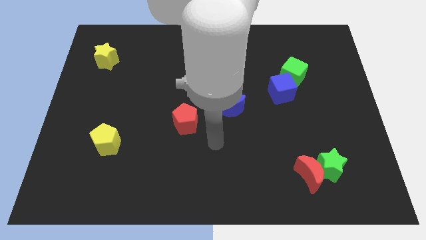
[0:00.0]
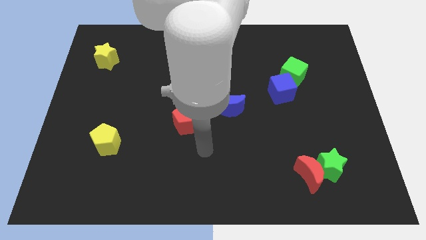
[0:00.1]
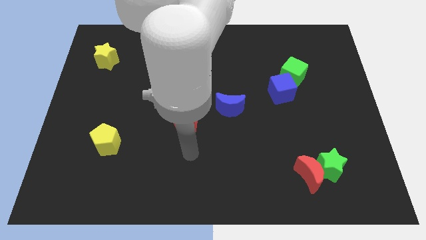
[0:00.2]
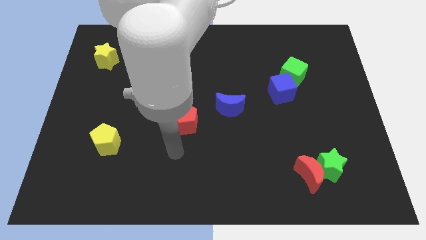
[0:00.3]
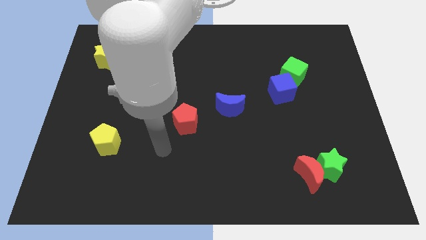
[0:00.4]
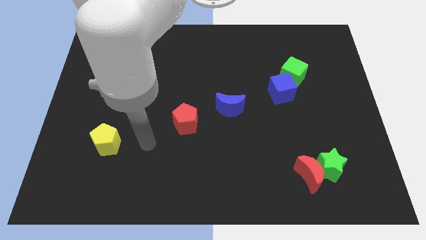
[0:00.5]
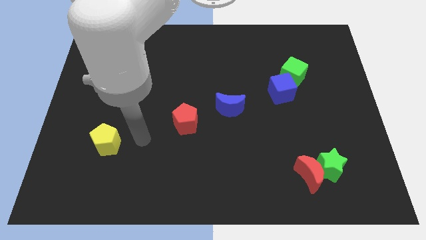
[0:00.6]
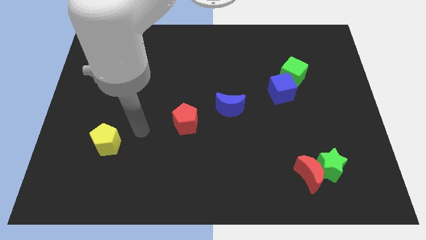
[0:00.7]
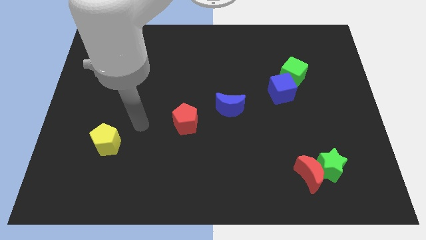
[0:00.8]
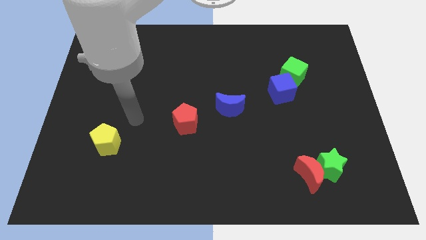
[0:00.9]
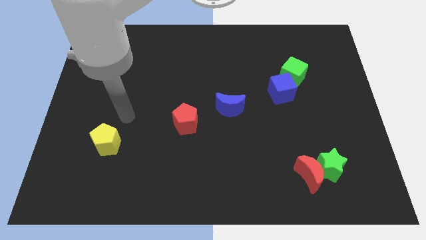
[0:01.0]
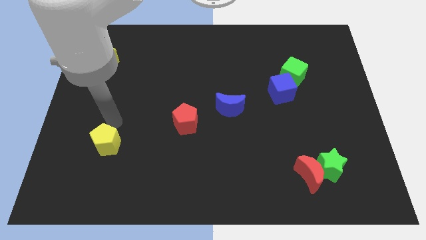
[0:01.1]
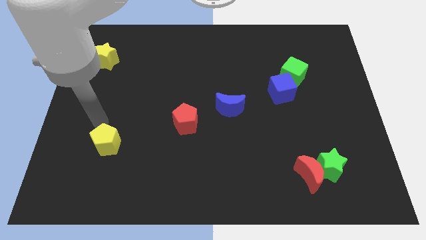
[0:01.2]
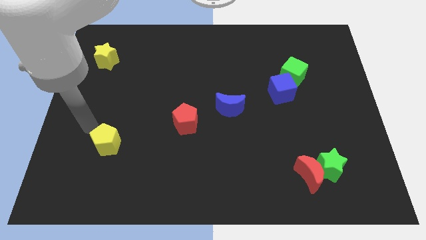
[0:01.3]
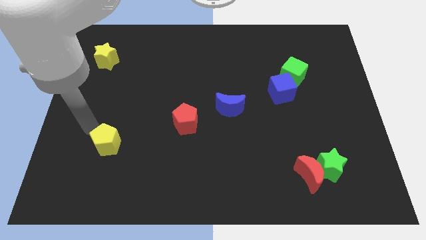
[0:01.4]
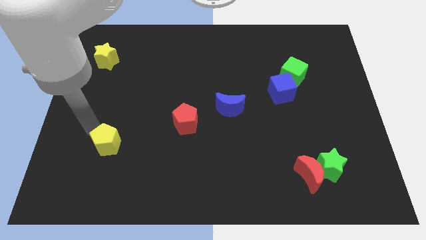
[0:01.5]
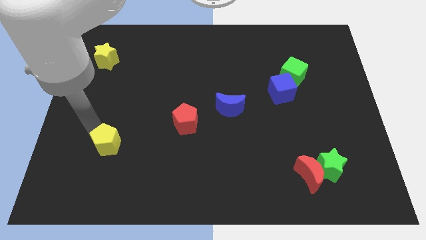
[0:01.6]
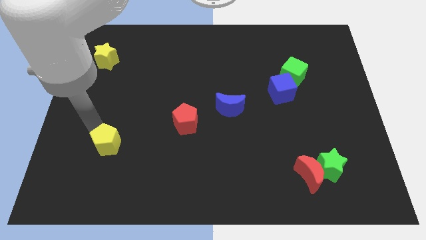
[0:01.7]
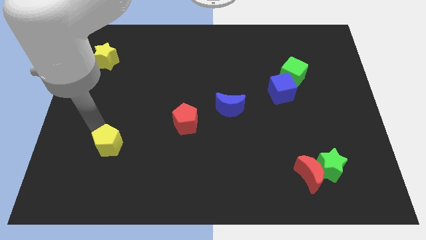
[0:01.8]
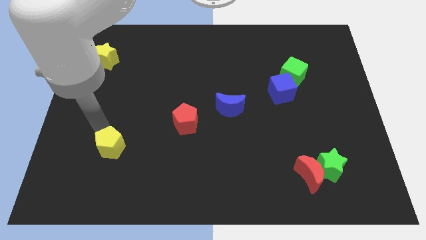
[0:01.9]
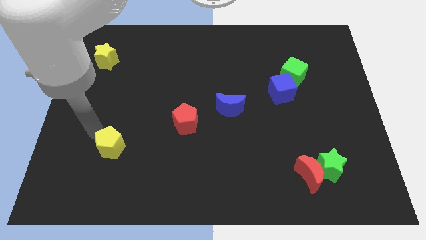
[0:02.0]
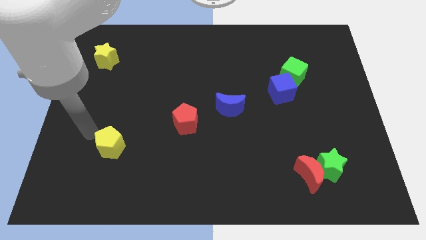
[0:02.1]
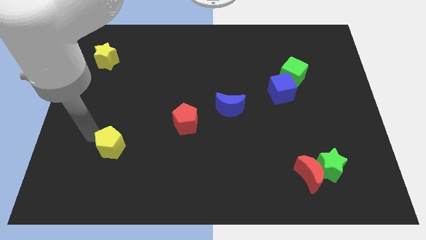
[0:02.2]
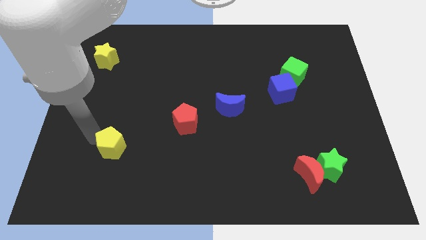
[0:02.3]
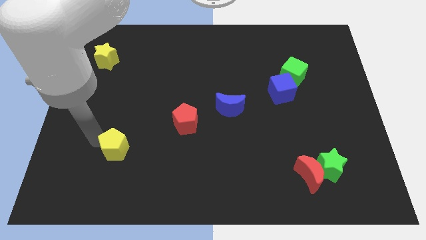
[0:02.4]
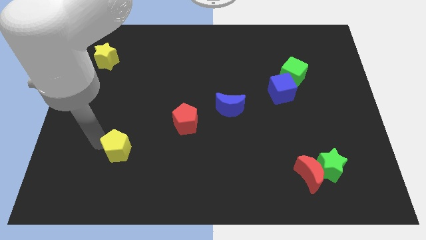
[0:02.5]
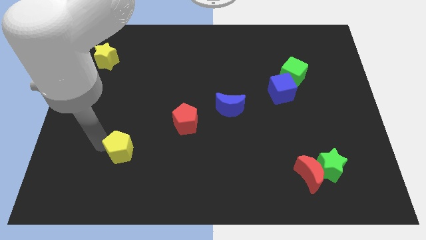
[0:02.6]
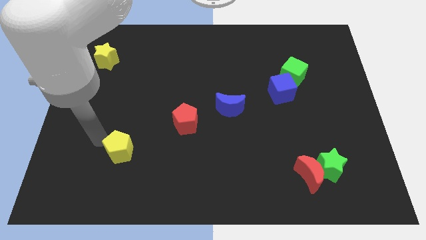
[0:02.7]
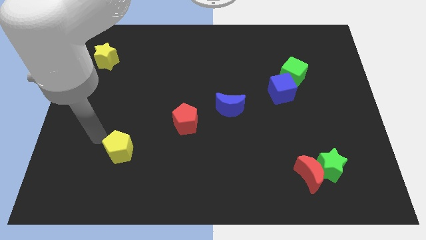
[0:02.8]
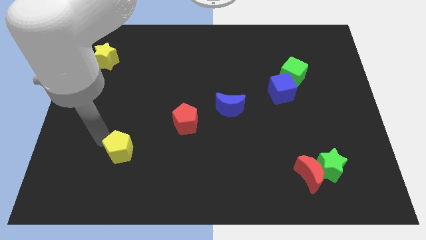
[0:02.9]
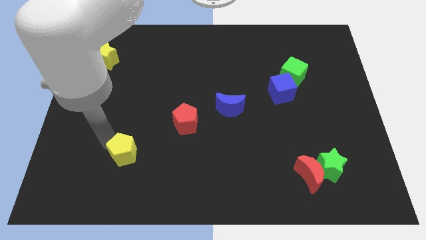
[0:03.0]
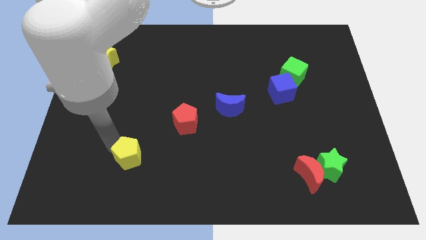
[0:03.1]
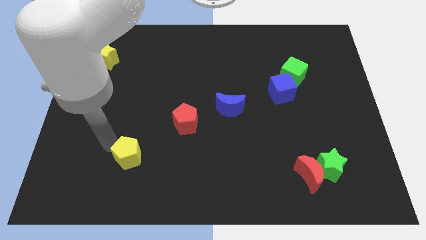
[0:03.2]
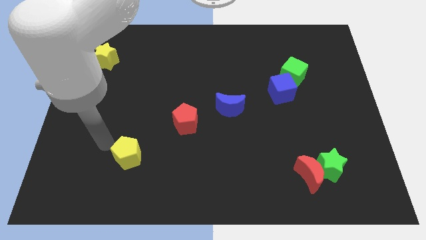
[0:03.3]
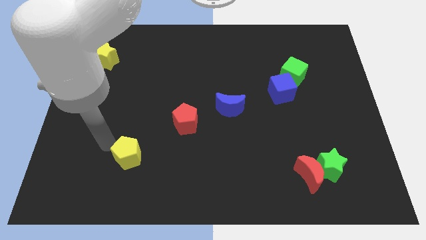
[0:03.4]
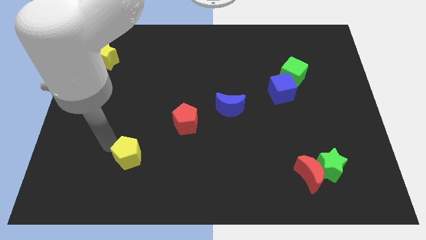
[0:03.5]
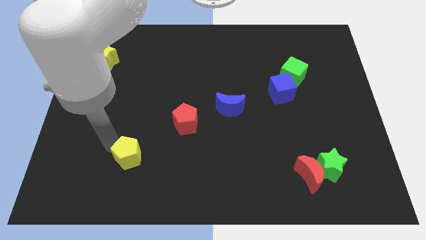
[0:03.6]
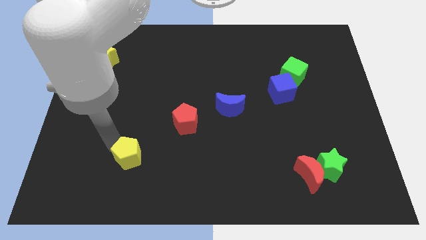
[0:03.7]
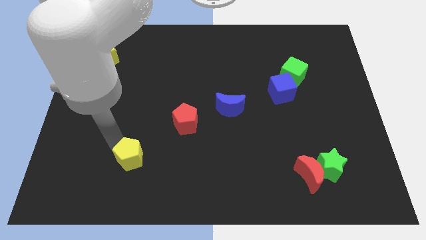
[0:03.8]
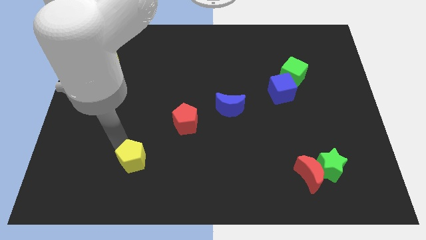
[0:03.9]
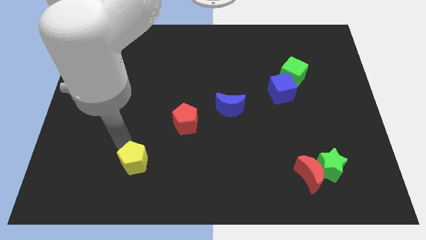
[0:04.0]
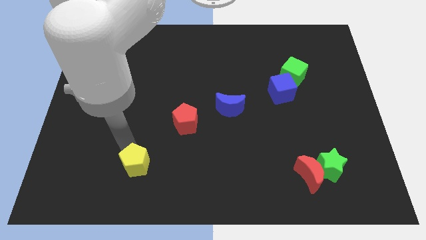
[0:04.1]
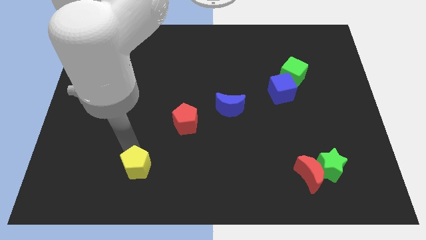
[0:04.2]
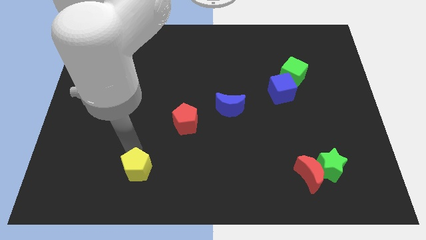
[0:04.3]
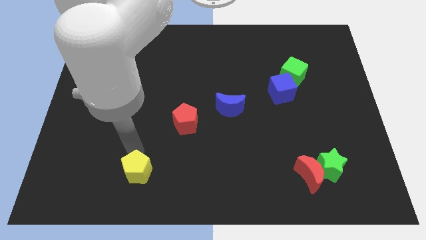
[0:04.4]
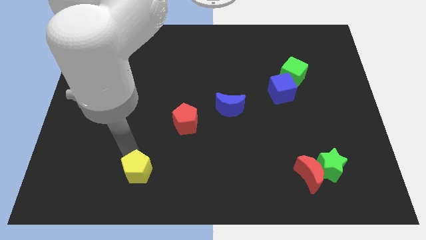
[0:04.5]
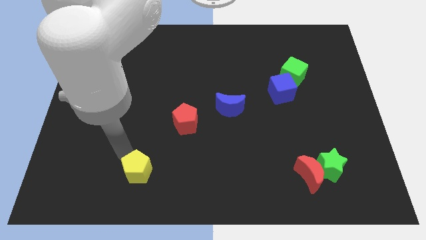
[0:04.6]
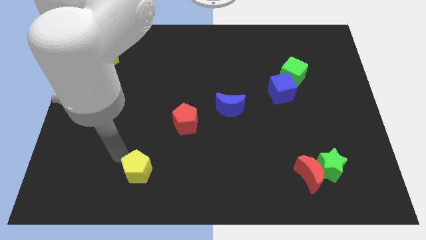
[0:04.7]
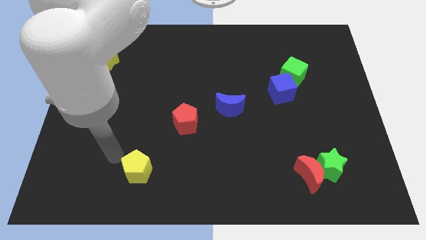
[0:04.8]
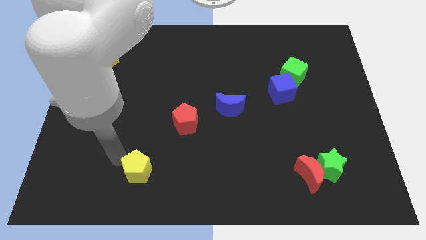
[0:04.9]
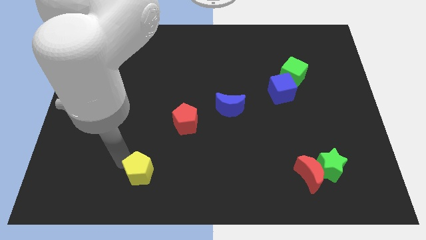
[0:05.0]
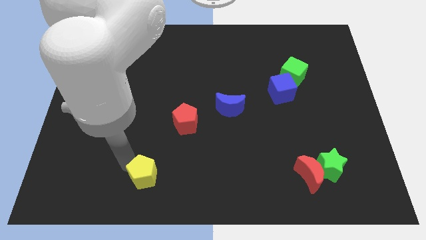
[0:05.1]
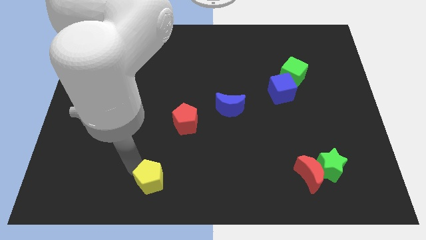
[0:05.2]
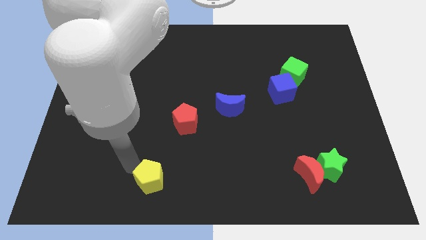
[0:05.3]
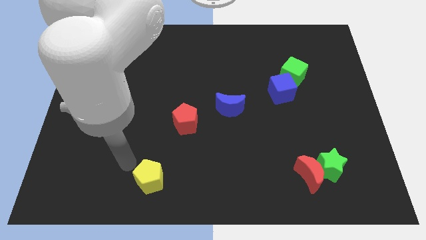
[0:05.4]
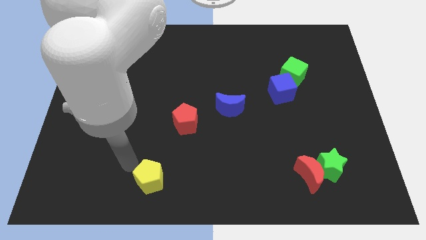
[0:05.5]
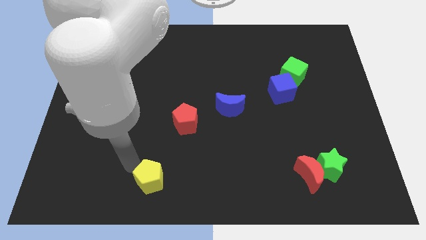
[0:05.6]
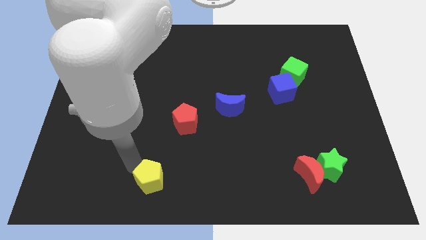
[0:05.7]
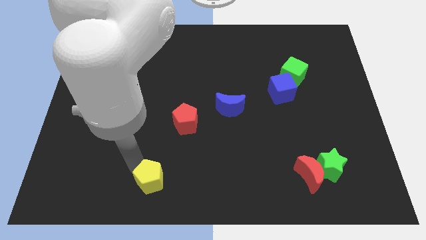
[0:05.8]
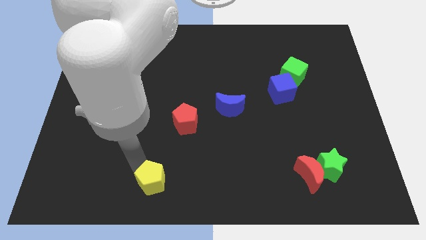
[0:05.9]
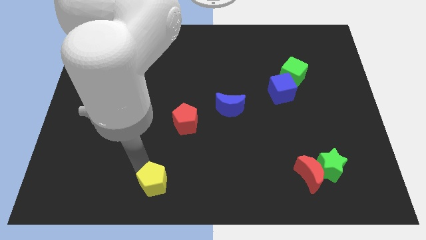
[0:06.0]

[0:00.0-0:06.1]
put the yellow pentagon to the bottom side
